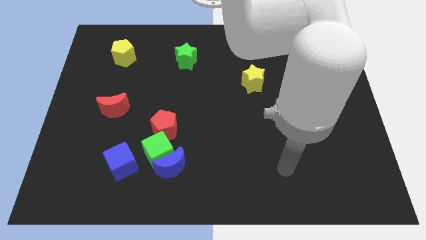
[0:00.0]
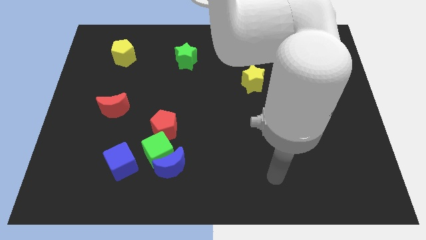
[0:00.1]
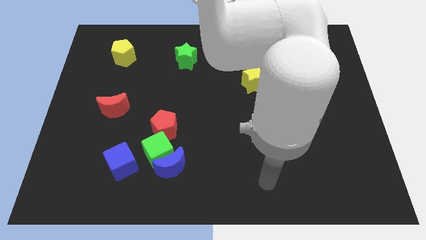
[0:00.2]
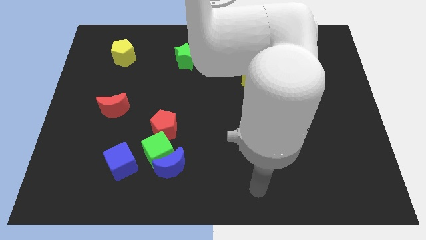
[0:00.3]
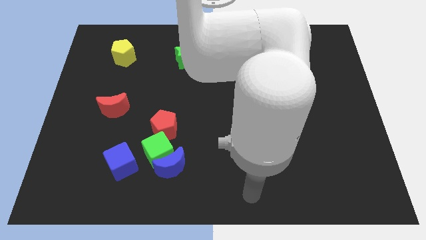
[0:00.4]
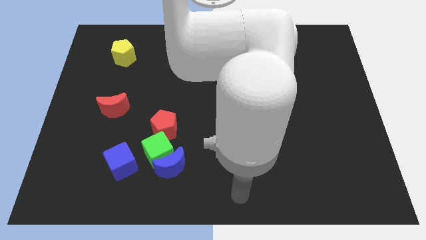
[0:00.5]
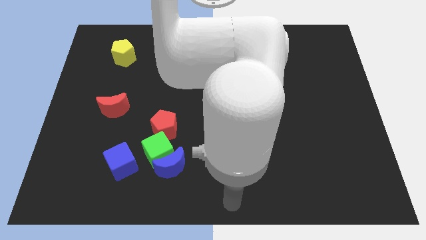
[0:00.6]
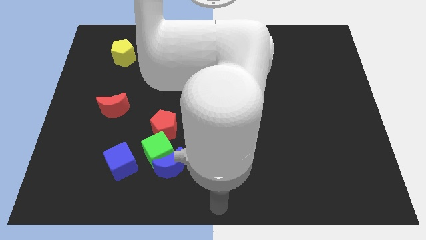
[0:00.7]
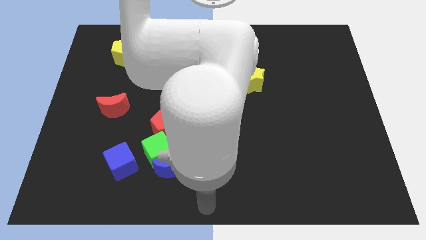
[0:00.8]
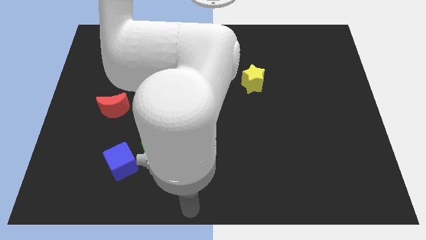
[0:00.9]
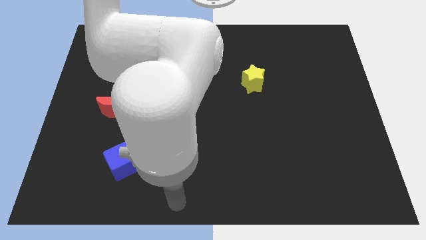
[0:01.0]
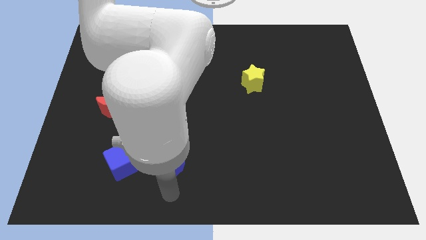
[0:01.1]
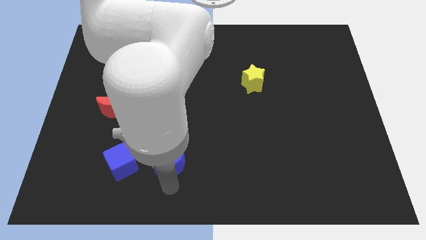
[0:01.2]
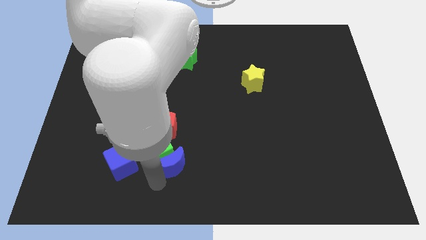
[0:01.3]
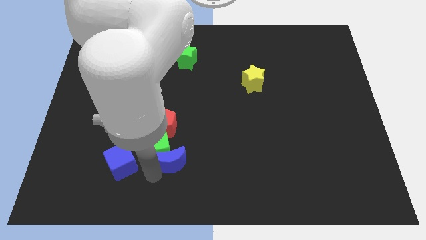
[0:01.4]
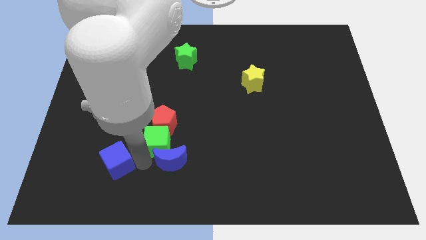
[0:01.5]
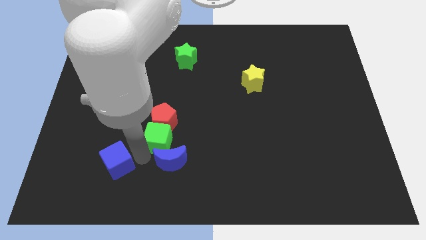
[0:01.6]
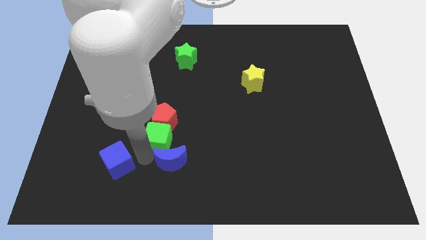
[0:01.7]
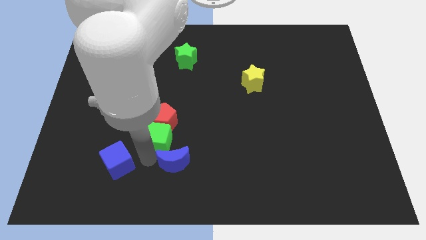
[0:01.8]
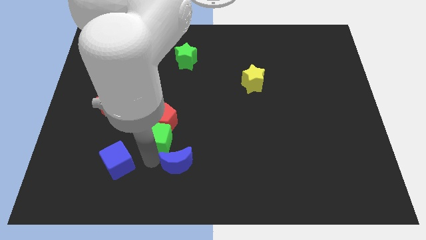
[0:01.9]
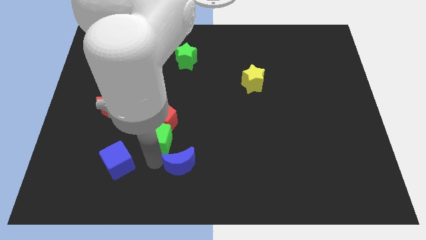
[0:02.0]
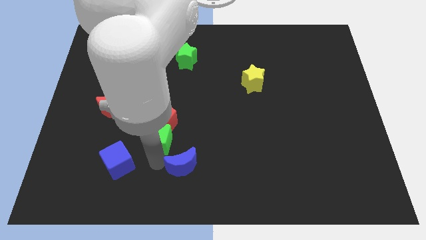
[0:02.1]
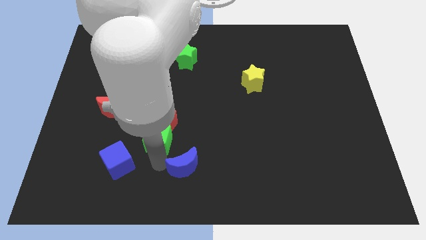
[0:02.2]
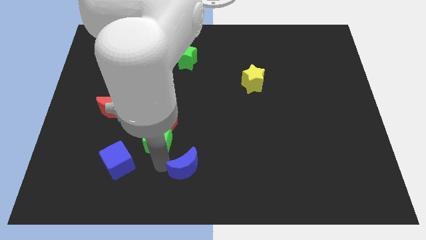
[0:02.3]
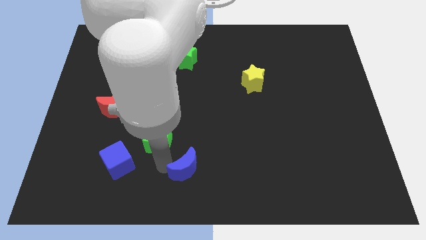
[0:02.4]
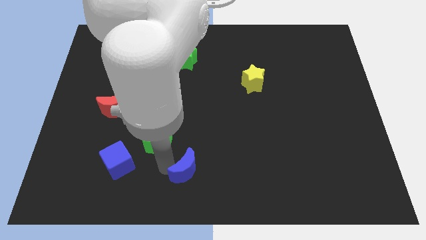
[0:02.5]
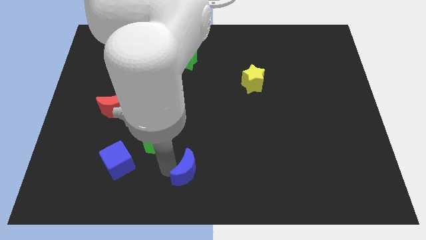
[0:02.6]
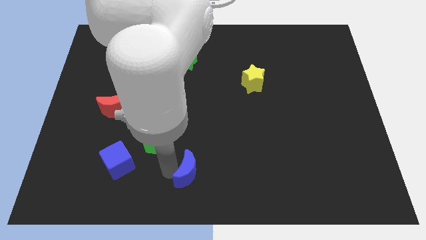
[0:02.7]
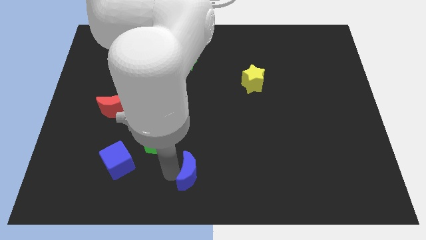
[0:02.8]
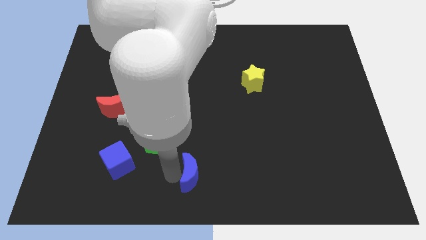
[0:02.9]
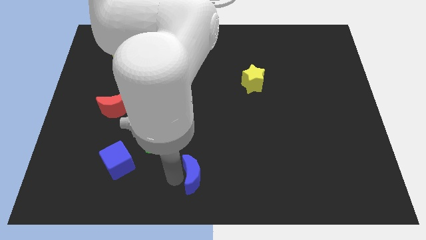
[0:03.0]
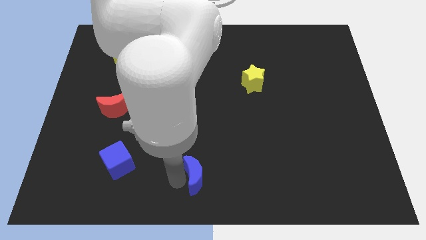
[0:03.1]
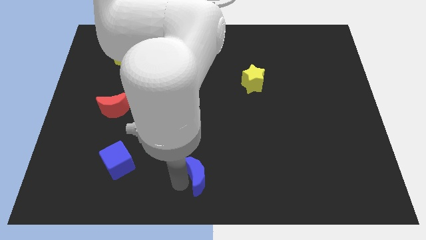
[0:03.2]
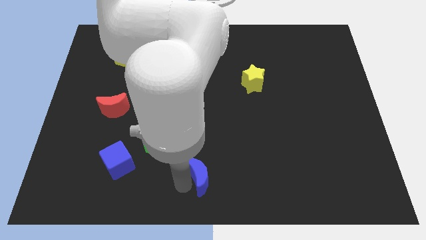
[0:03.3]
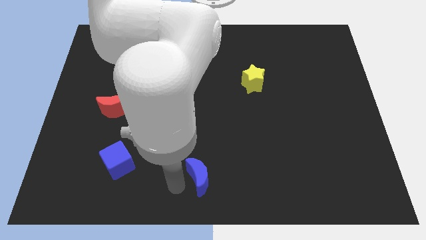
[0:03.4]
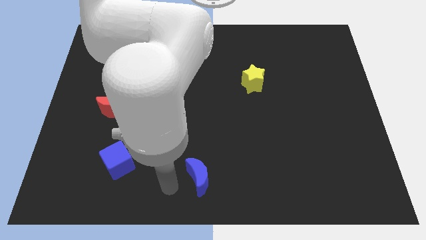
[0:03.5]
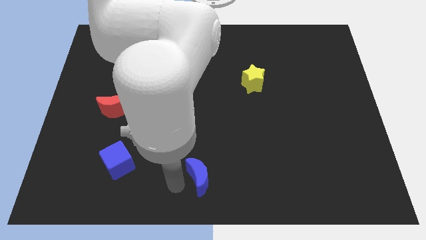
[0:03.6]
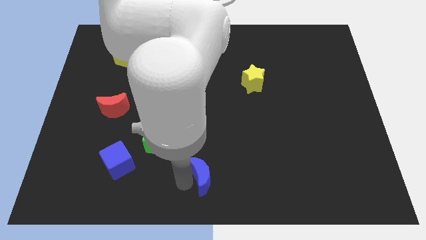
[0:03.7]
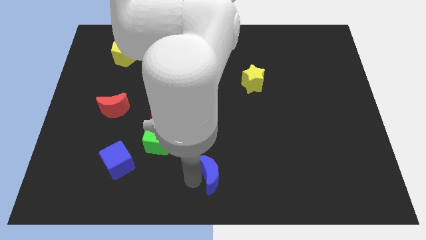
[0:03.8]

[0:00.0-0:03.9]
push the blue moon right somewhat

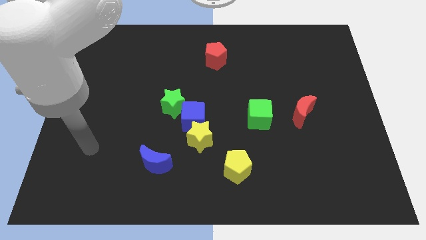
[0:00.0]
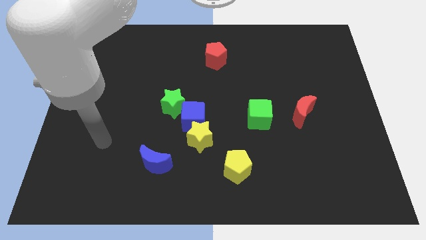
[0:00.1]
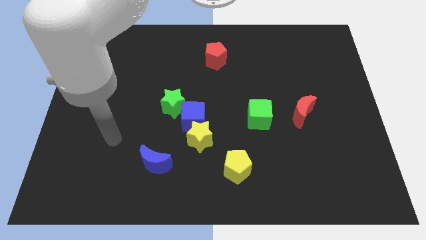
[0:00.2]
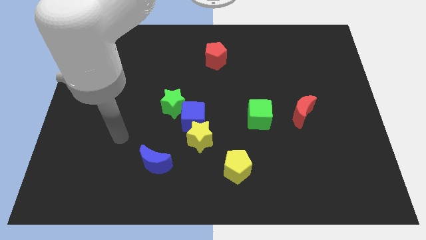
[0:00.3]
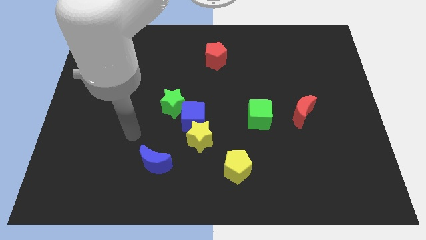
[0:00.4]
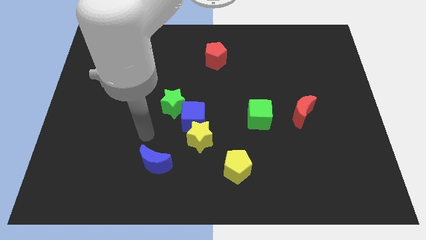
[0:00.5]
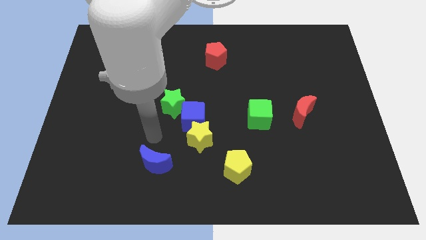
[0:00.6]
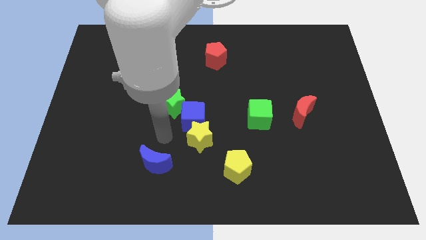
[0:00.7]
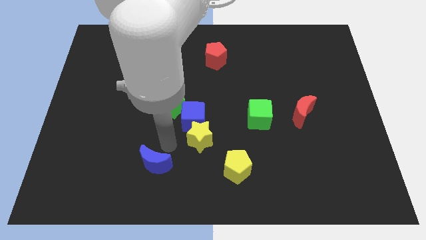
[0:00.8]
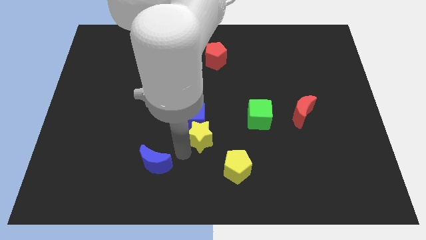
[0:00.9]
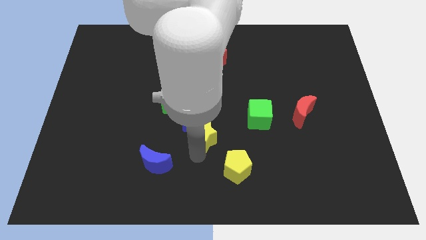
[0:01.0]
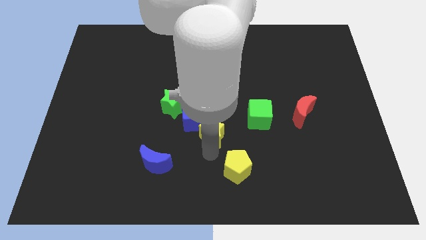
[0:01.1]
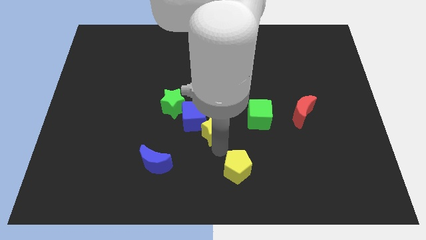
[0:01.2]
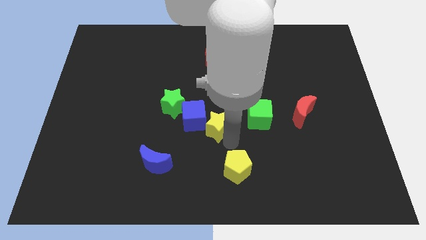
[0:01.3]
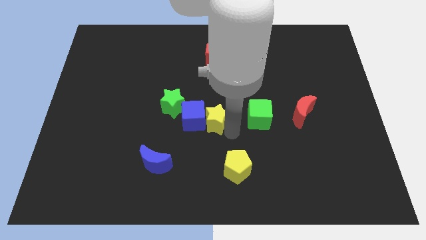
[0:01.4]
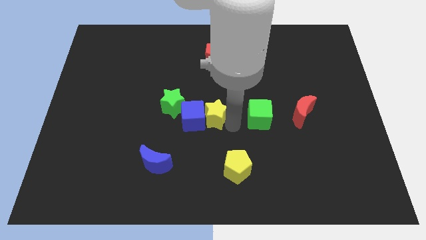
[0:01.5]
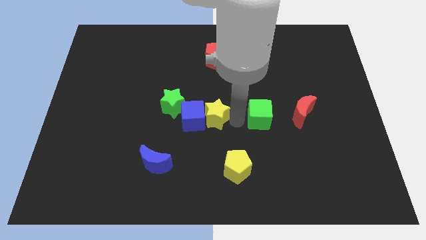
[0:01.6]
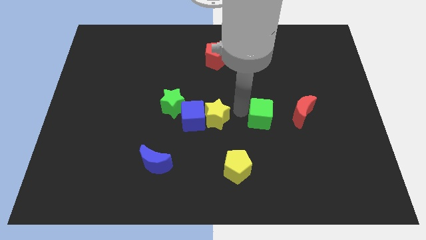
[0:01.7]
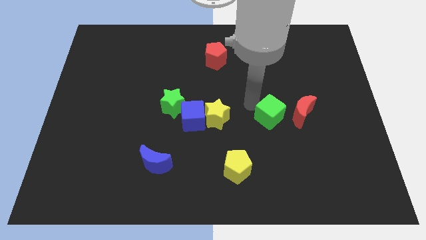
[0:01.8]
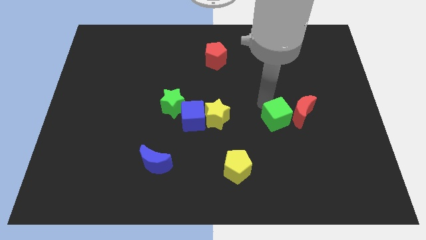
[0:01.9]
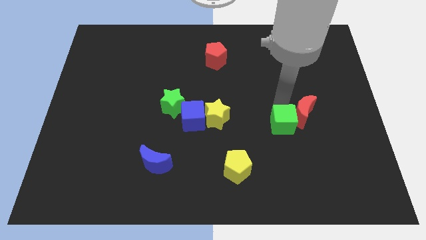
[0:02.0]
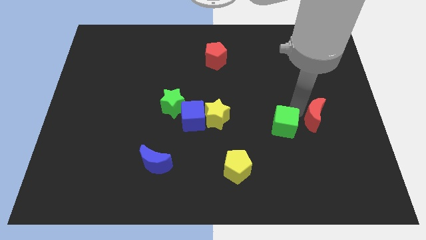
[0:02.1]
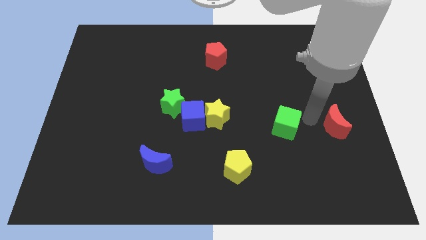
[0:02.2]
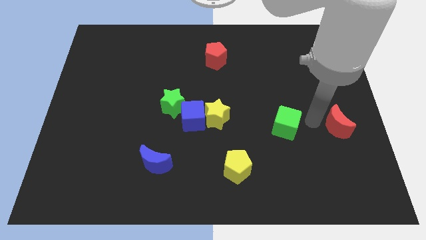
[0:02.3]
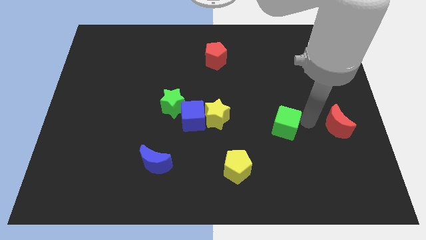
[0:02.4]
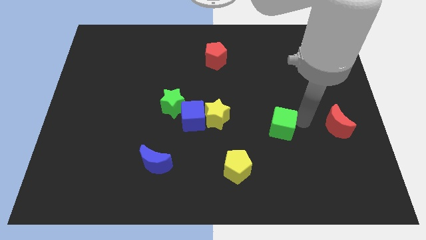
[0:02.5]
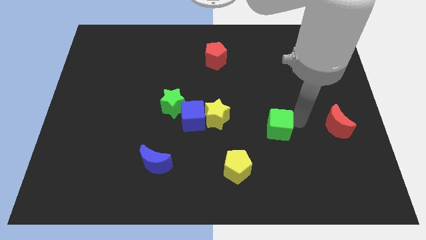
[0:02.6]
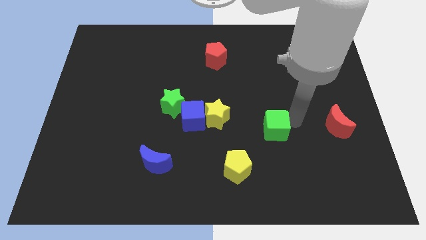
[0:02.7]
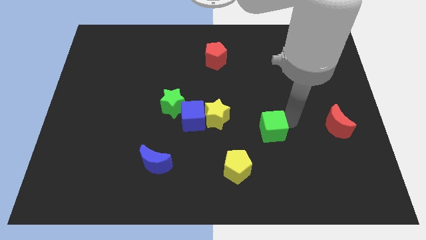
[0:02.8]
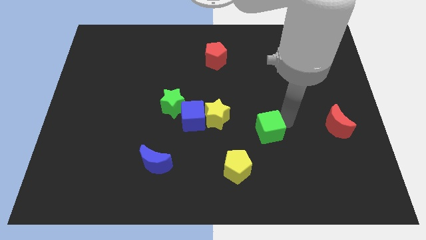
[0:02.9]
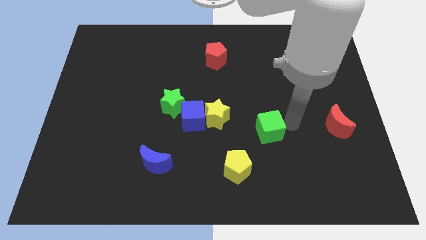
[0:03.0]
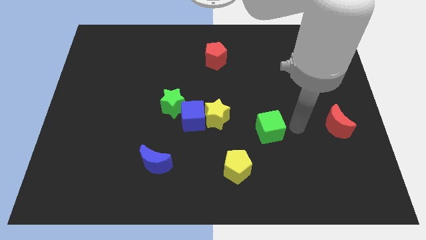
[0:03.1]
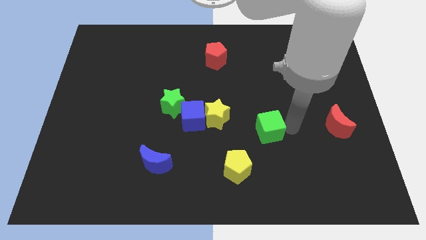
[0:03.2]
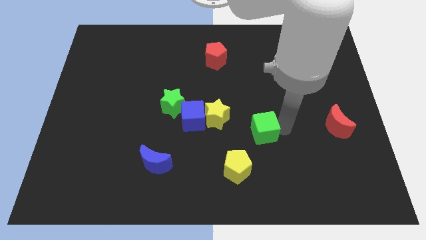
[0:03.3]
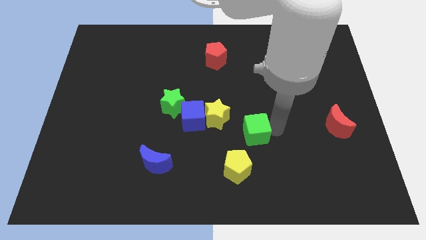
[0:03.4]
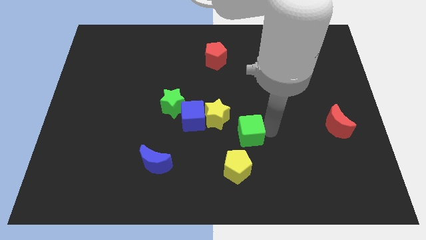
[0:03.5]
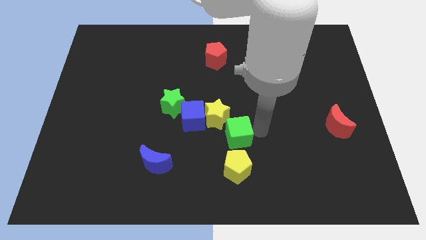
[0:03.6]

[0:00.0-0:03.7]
move the green cube somewhat downwards and to the left diagonally

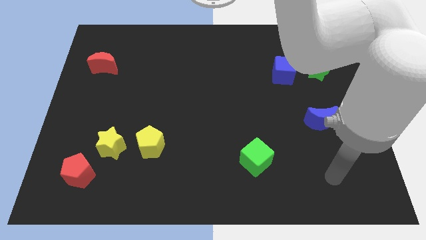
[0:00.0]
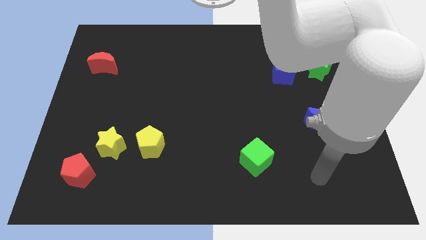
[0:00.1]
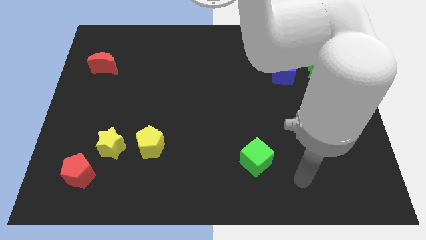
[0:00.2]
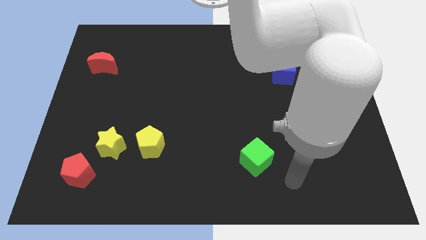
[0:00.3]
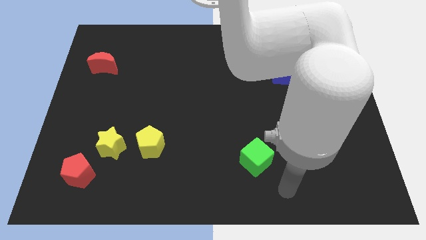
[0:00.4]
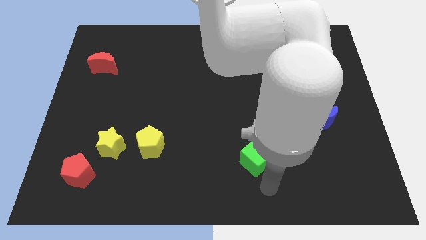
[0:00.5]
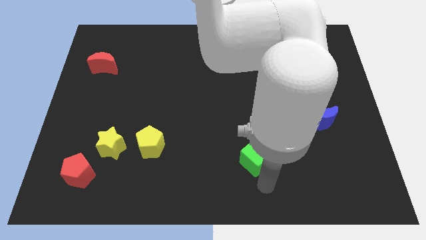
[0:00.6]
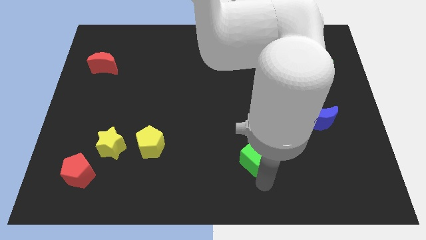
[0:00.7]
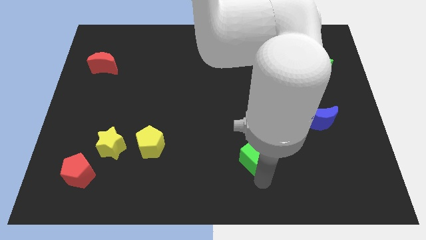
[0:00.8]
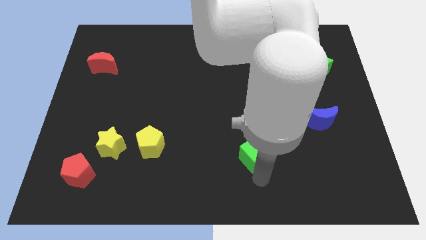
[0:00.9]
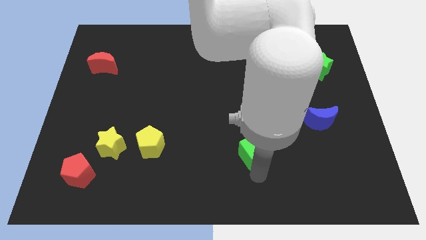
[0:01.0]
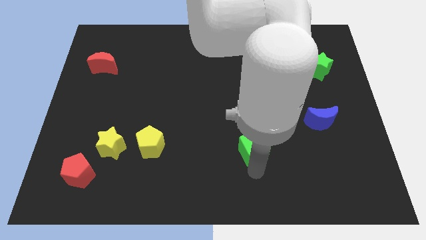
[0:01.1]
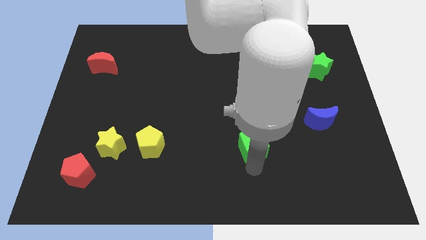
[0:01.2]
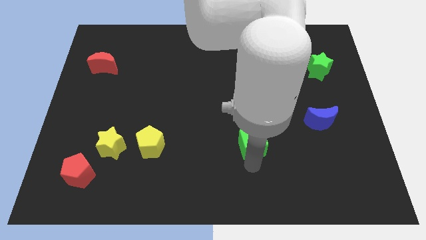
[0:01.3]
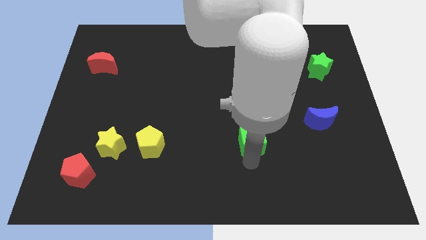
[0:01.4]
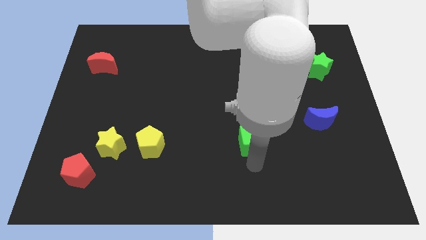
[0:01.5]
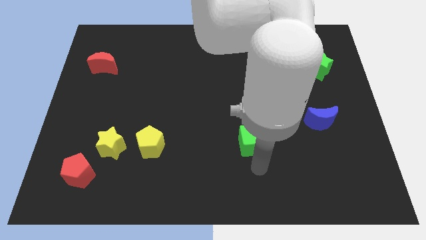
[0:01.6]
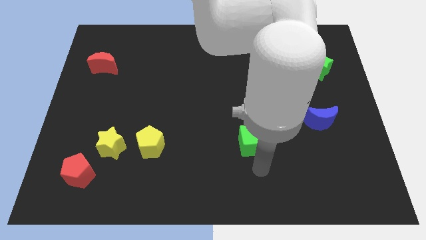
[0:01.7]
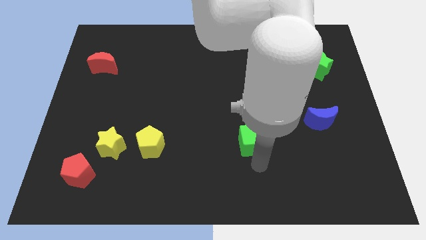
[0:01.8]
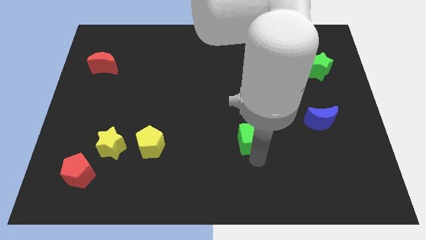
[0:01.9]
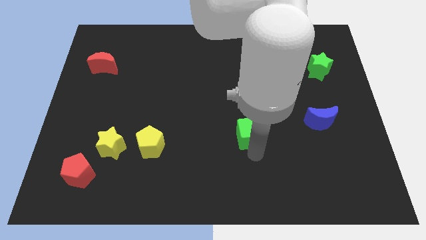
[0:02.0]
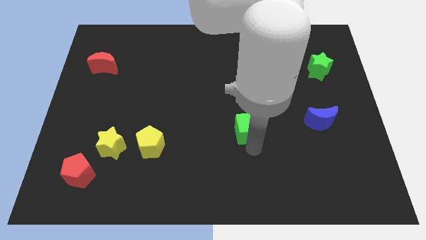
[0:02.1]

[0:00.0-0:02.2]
slide the green cube a little upwards
